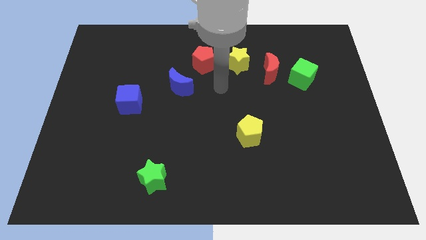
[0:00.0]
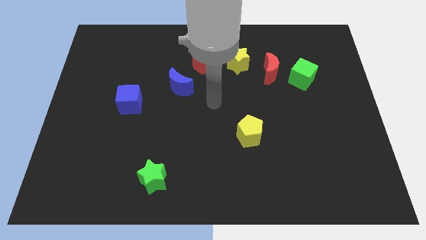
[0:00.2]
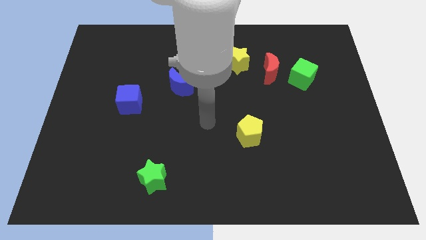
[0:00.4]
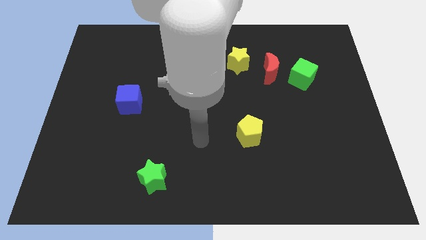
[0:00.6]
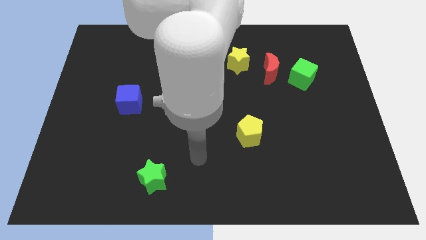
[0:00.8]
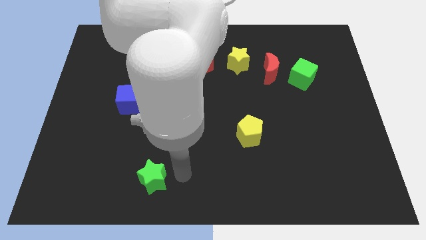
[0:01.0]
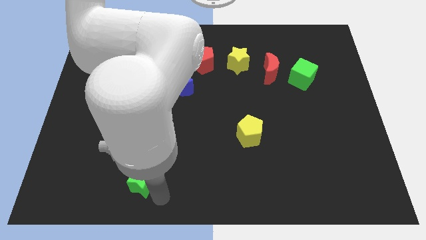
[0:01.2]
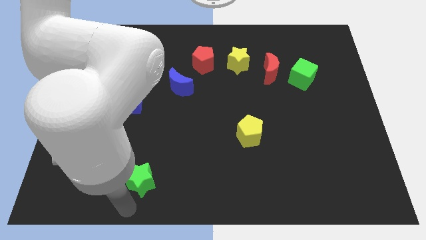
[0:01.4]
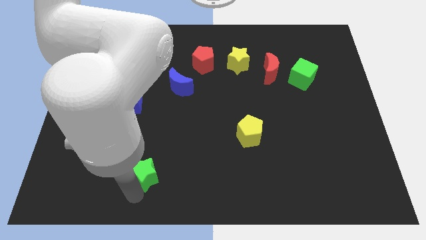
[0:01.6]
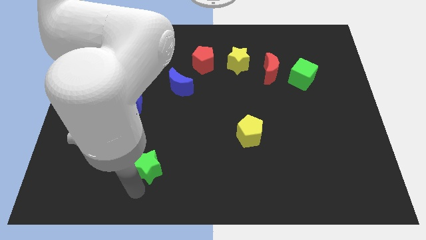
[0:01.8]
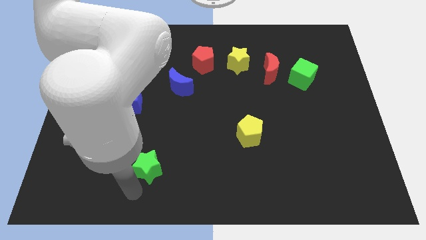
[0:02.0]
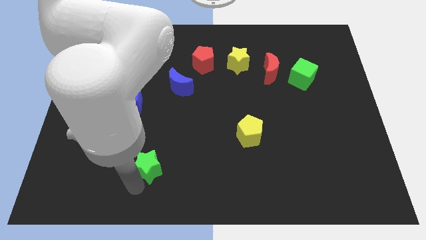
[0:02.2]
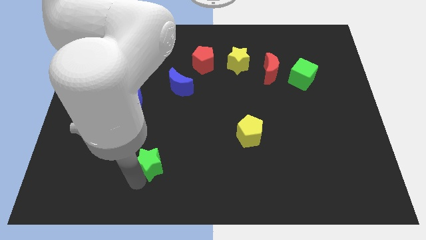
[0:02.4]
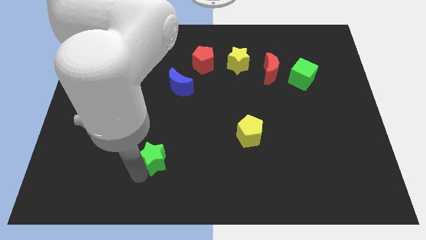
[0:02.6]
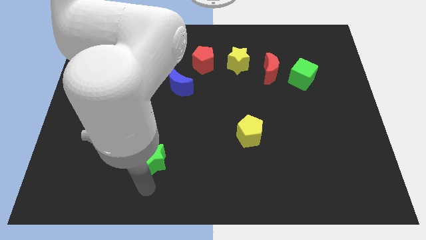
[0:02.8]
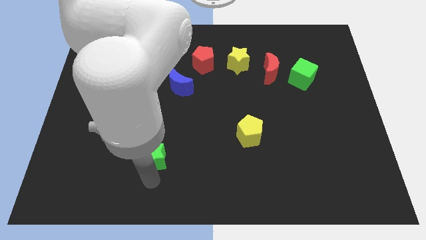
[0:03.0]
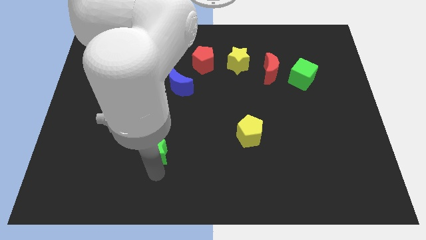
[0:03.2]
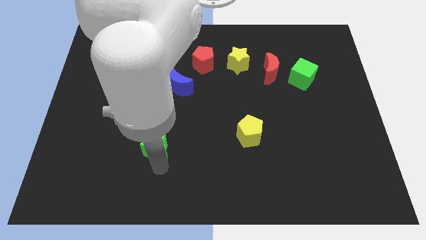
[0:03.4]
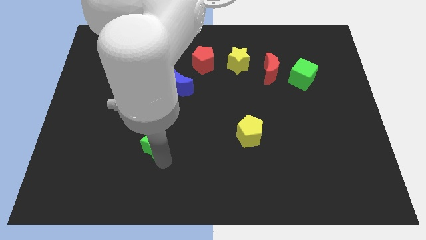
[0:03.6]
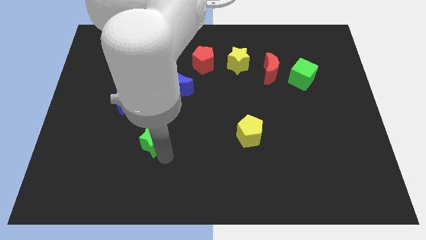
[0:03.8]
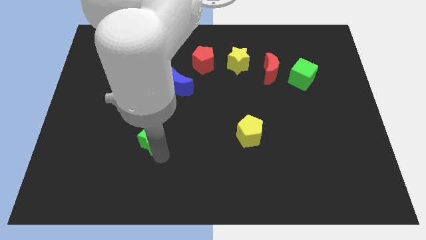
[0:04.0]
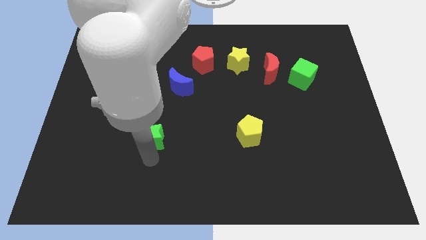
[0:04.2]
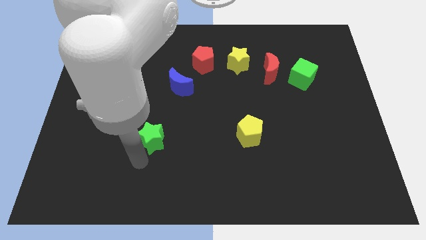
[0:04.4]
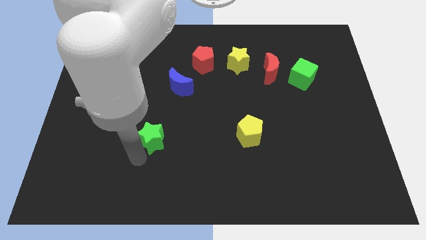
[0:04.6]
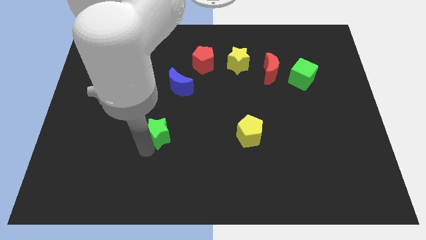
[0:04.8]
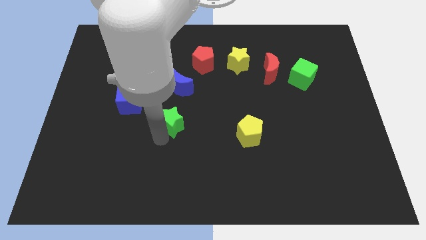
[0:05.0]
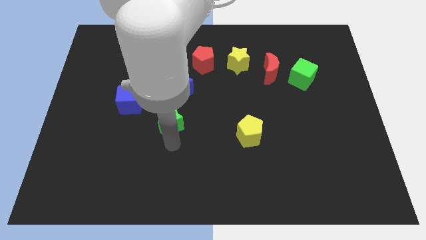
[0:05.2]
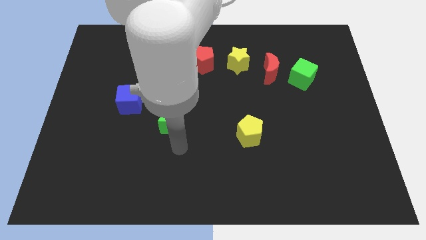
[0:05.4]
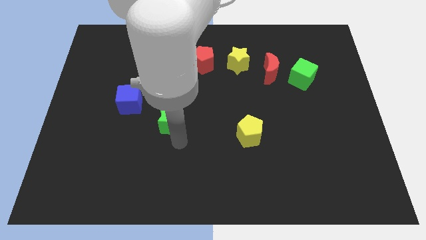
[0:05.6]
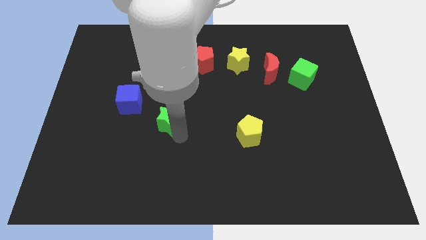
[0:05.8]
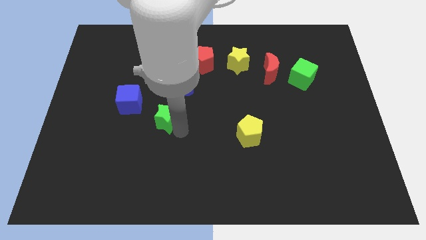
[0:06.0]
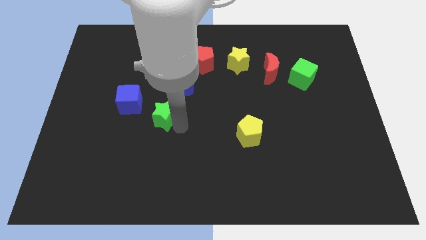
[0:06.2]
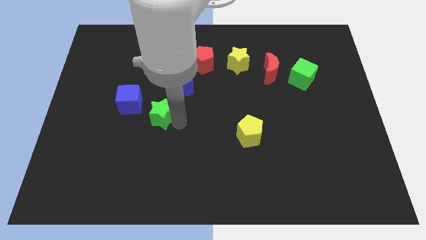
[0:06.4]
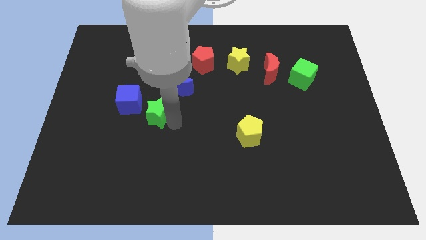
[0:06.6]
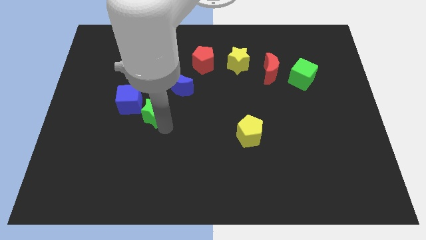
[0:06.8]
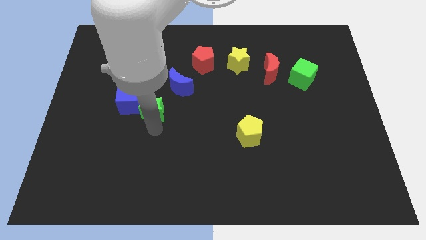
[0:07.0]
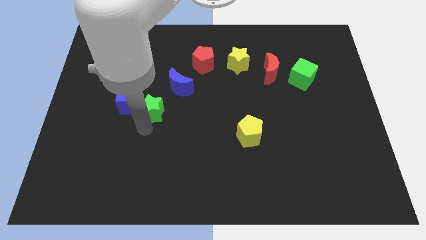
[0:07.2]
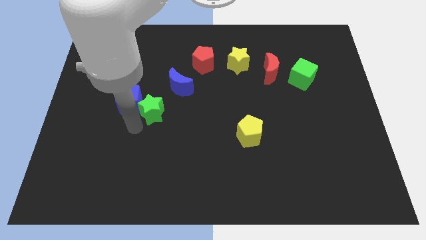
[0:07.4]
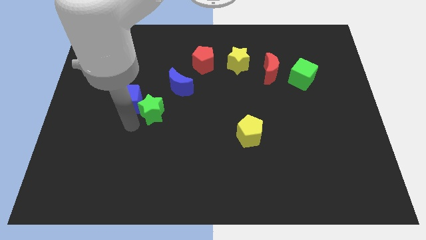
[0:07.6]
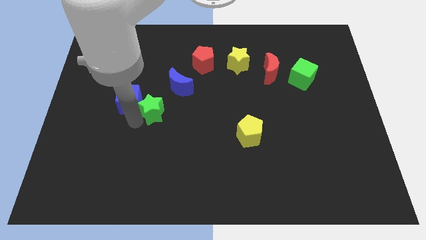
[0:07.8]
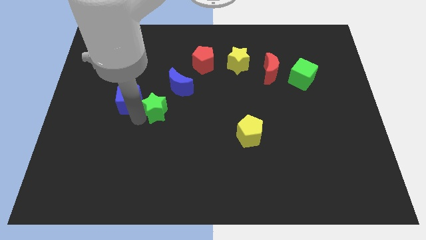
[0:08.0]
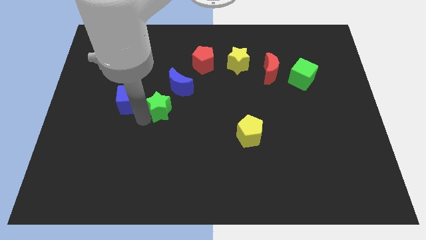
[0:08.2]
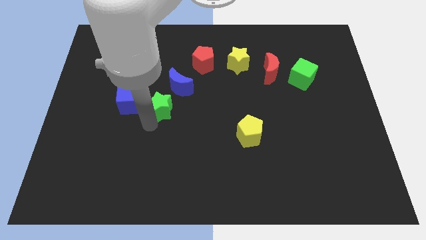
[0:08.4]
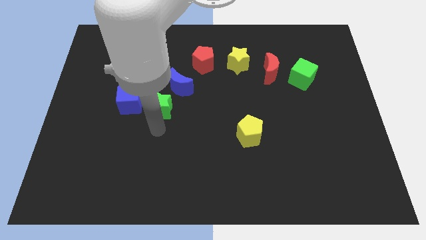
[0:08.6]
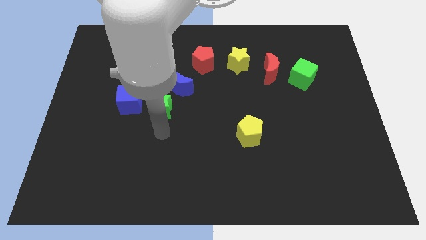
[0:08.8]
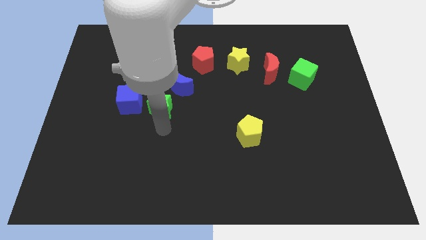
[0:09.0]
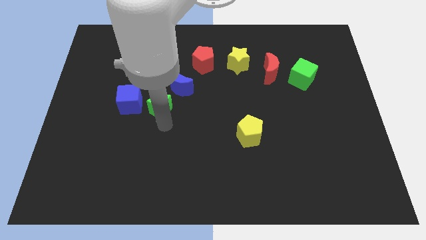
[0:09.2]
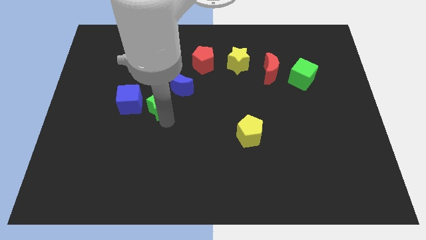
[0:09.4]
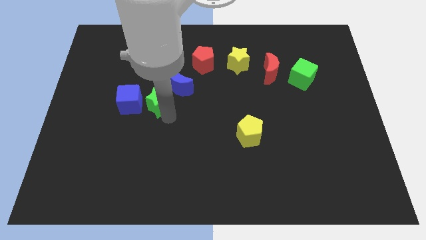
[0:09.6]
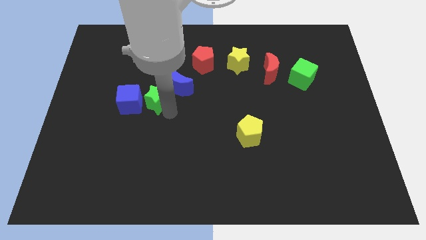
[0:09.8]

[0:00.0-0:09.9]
slide the green star upwards

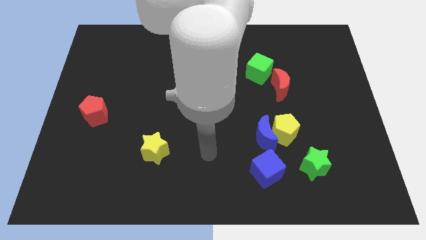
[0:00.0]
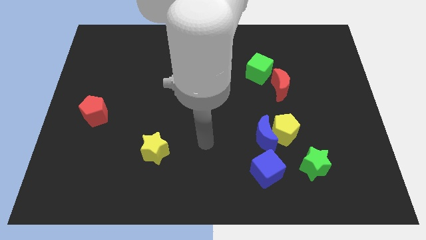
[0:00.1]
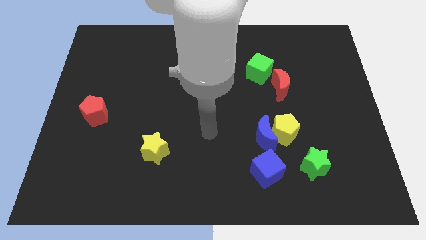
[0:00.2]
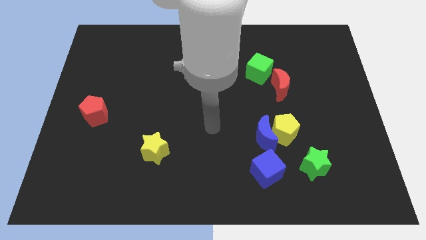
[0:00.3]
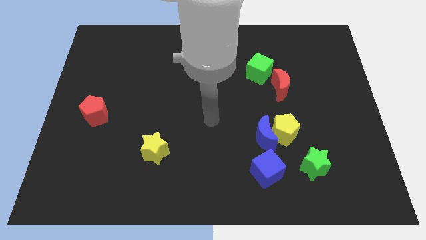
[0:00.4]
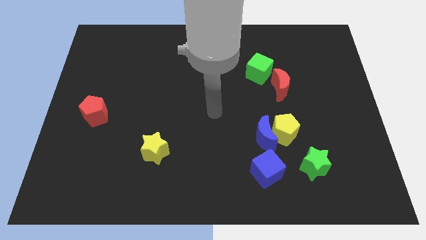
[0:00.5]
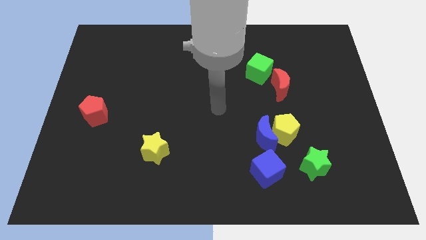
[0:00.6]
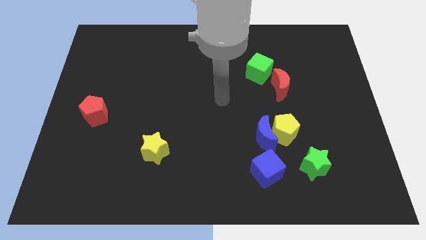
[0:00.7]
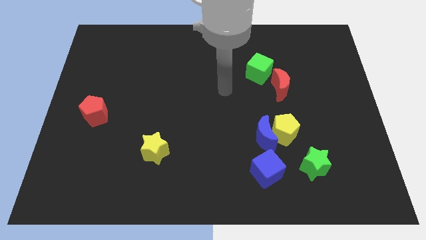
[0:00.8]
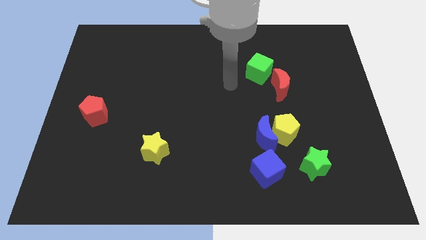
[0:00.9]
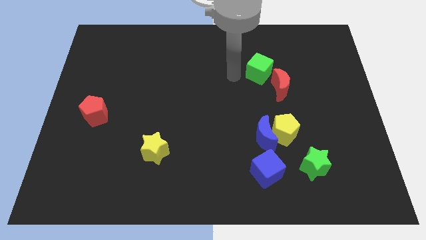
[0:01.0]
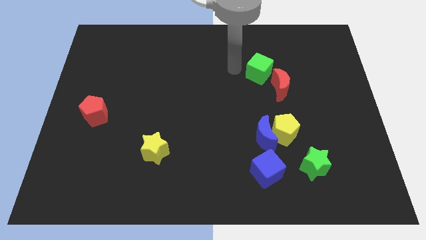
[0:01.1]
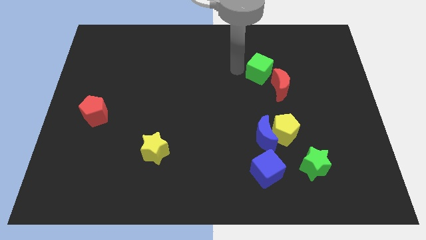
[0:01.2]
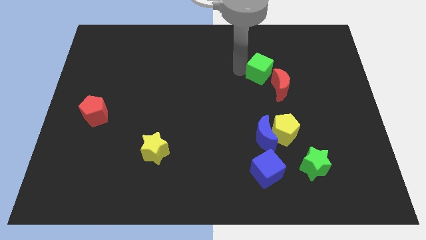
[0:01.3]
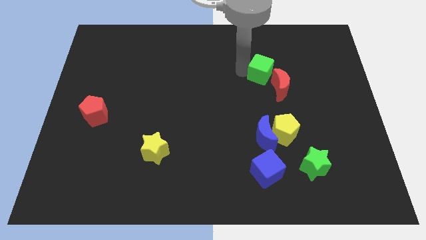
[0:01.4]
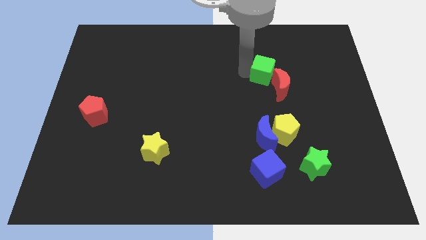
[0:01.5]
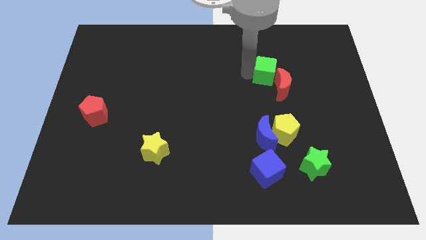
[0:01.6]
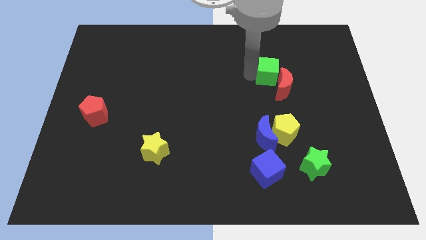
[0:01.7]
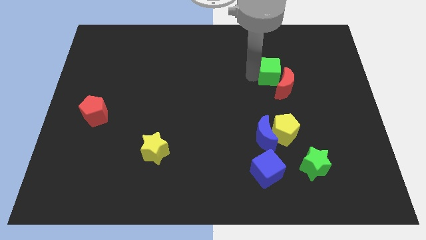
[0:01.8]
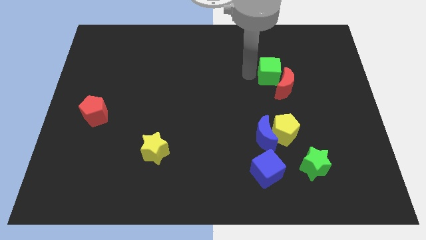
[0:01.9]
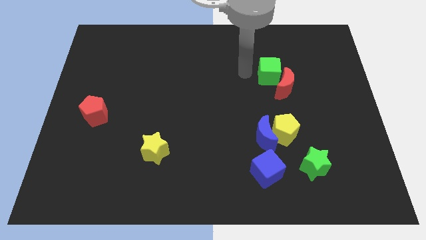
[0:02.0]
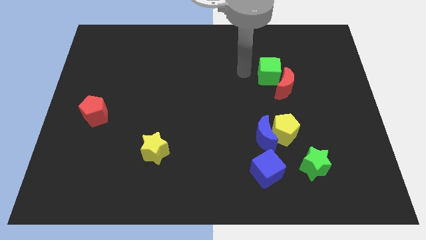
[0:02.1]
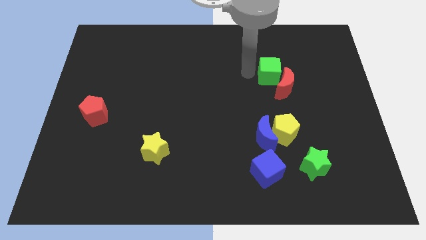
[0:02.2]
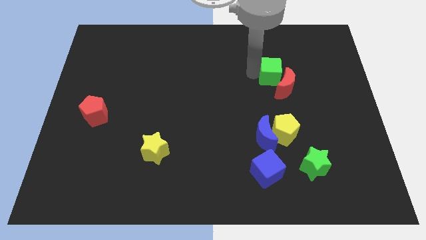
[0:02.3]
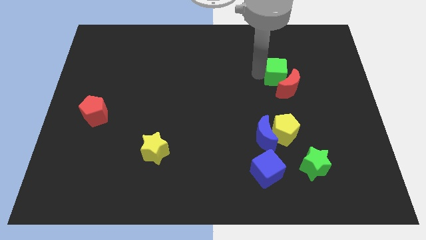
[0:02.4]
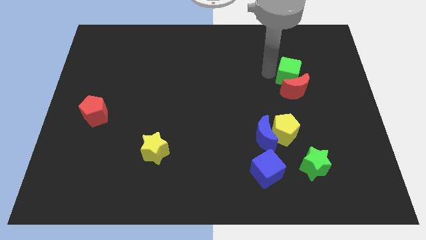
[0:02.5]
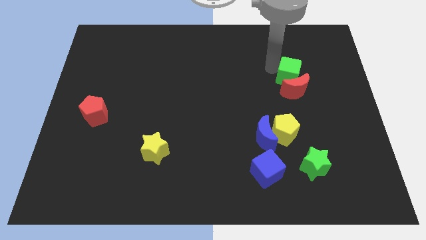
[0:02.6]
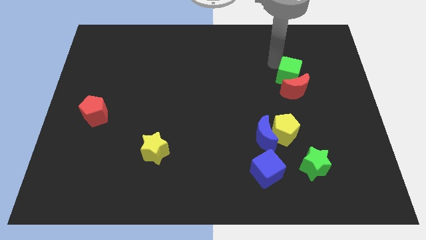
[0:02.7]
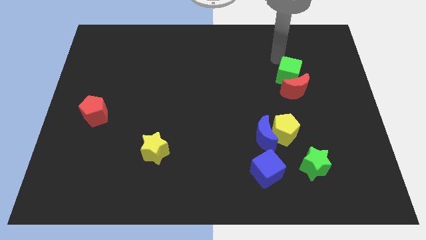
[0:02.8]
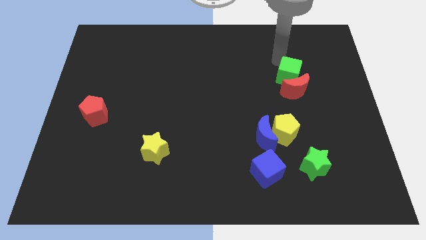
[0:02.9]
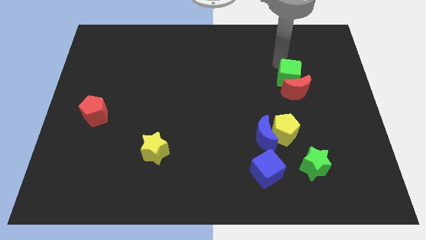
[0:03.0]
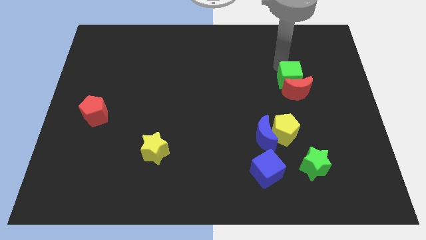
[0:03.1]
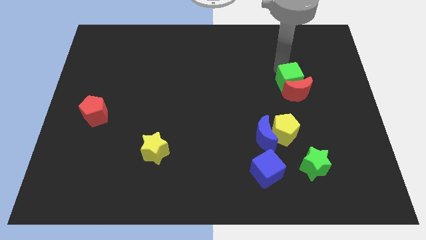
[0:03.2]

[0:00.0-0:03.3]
slide the green cube a little bit down and right diagonally
